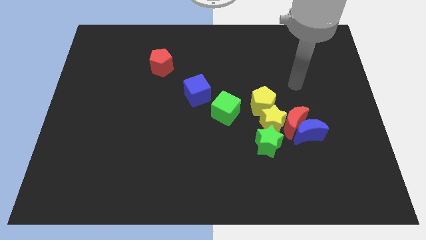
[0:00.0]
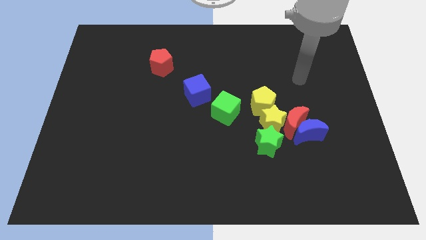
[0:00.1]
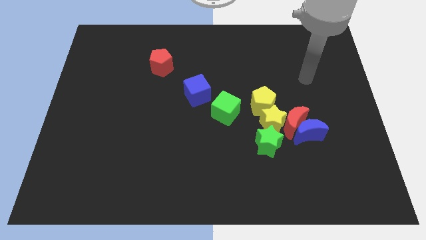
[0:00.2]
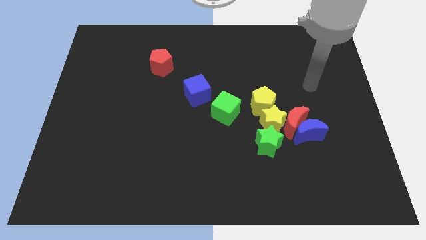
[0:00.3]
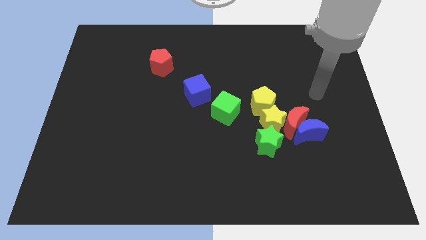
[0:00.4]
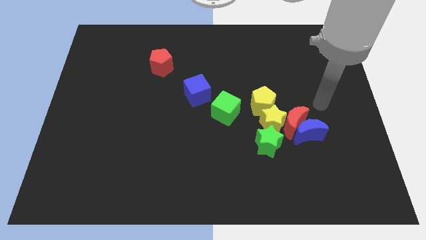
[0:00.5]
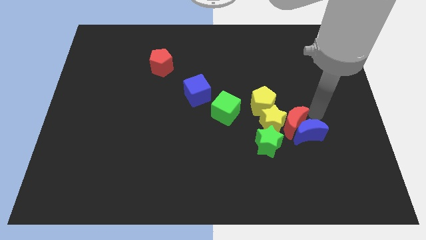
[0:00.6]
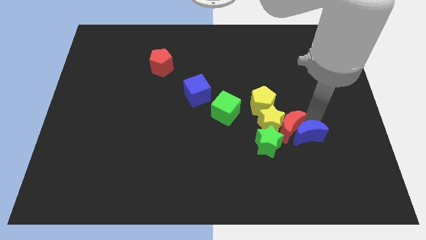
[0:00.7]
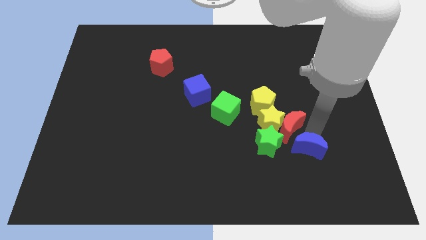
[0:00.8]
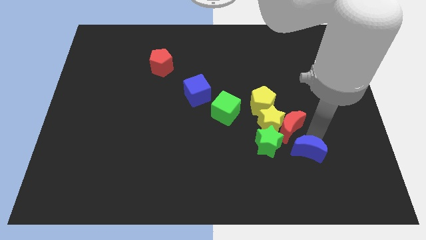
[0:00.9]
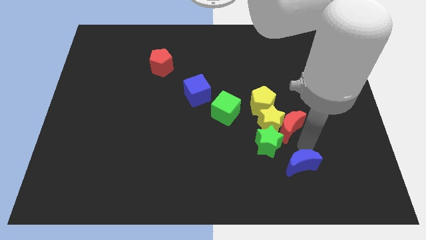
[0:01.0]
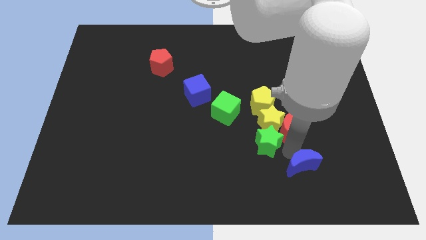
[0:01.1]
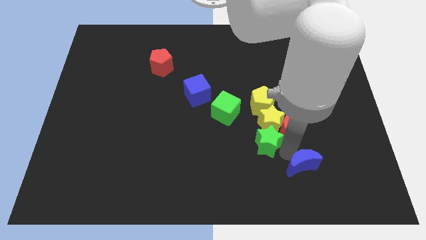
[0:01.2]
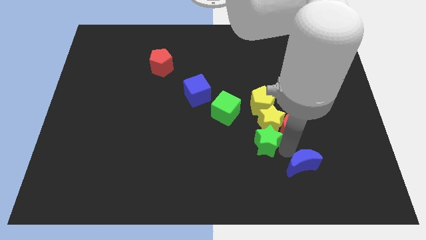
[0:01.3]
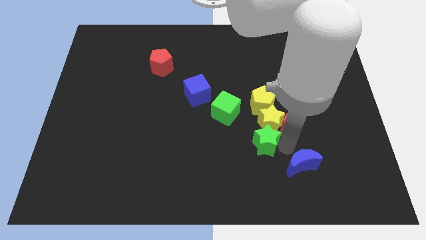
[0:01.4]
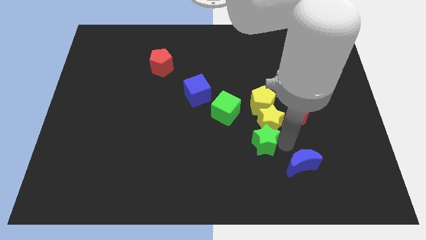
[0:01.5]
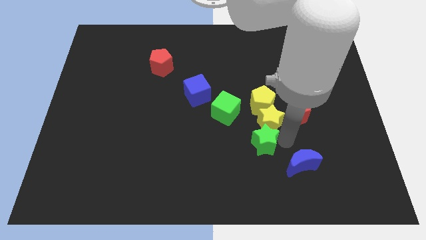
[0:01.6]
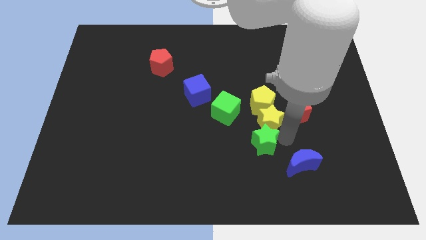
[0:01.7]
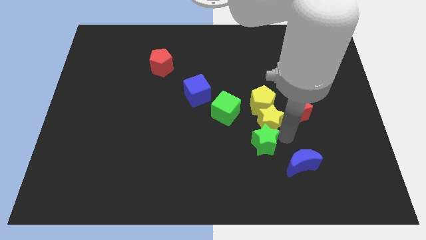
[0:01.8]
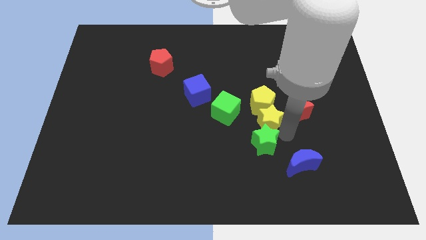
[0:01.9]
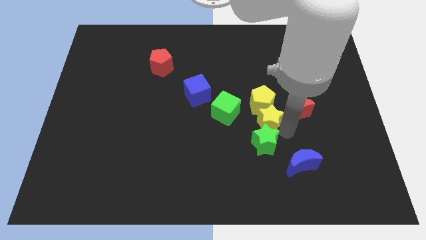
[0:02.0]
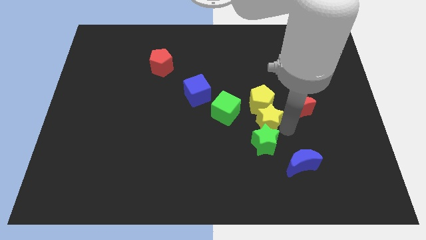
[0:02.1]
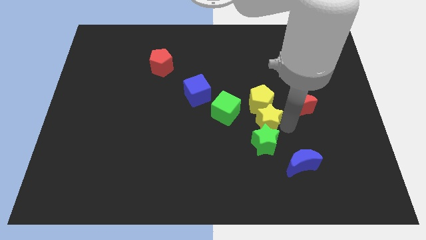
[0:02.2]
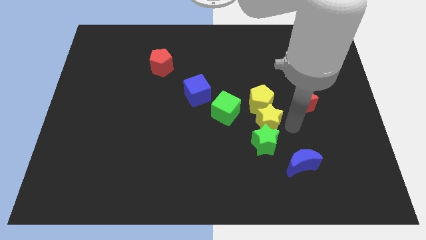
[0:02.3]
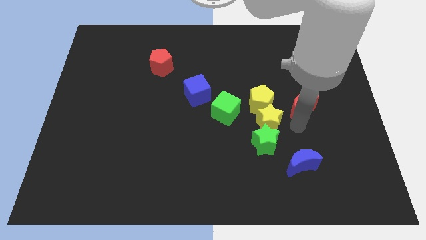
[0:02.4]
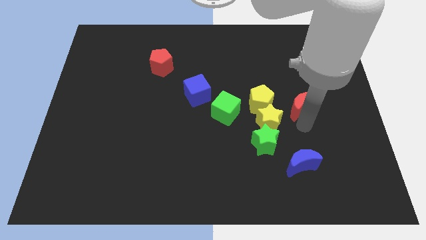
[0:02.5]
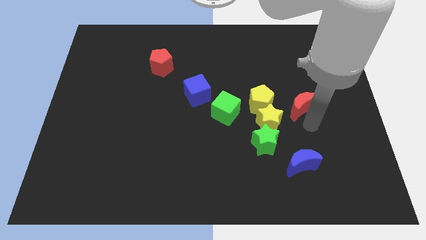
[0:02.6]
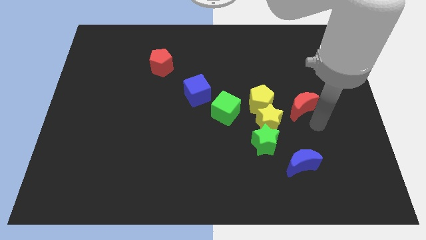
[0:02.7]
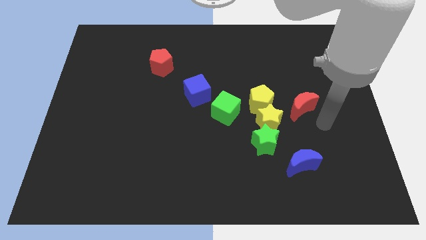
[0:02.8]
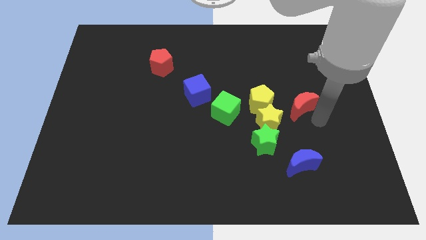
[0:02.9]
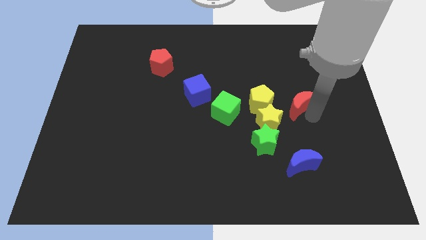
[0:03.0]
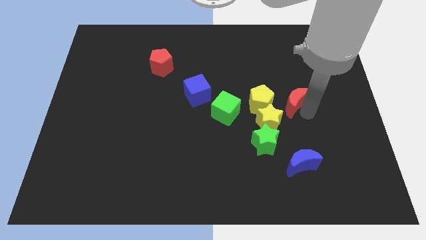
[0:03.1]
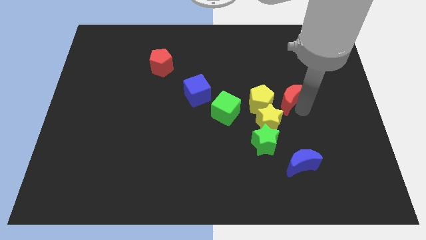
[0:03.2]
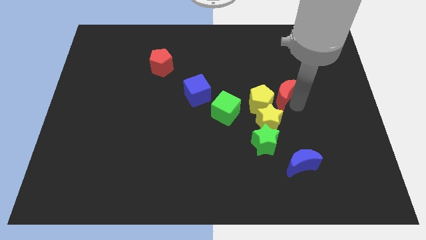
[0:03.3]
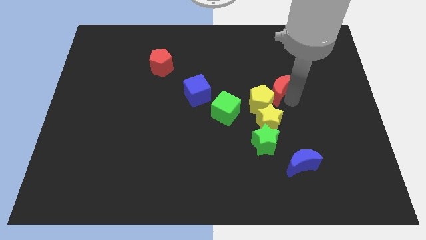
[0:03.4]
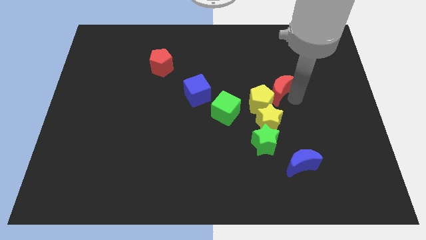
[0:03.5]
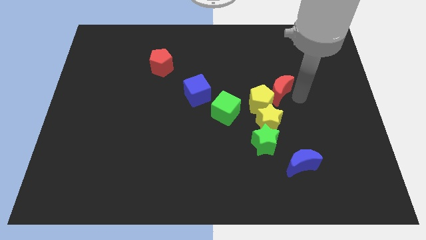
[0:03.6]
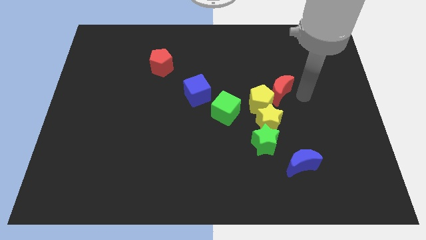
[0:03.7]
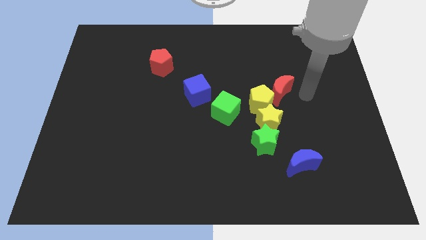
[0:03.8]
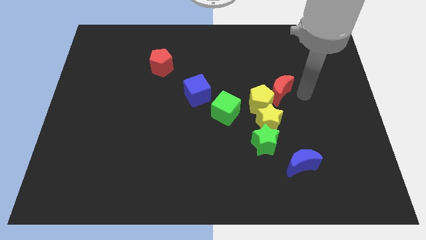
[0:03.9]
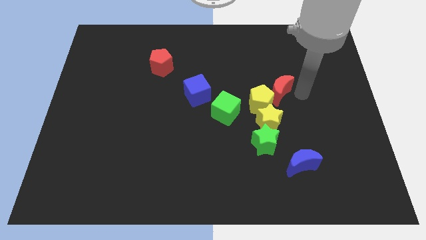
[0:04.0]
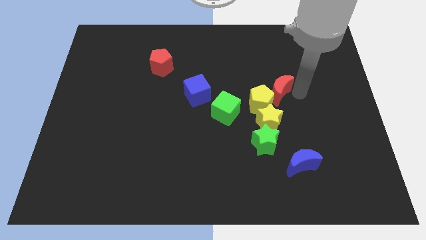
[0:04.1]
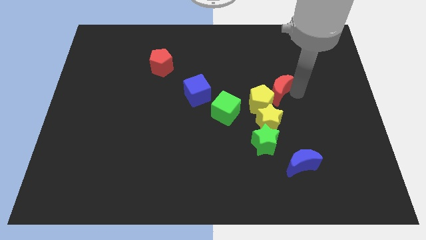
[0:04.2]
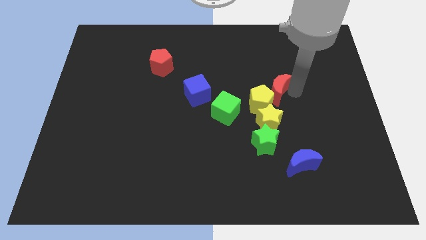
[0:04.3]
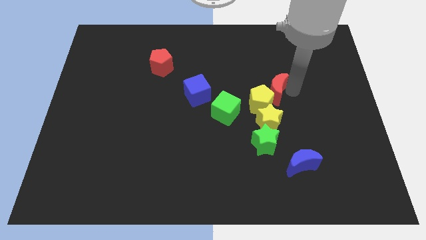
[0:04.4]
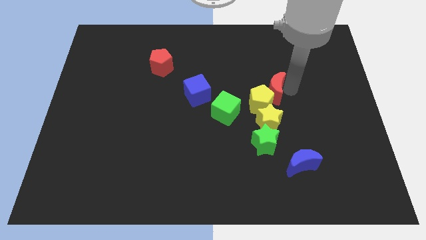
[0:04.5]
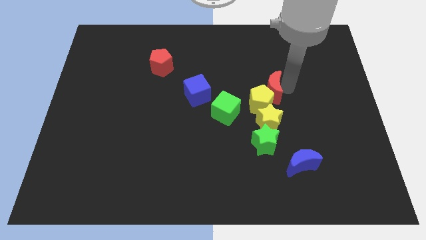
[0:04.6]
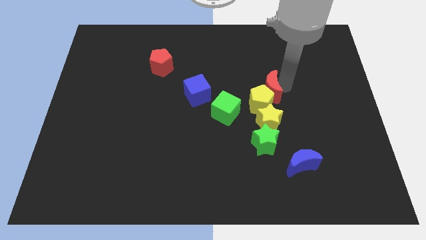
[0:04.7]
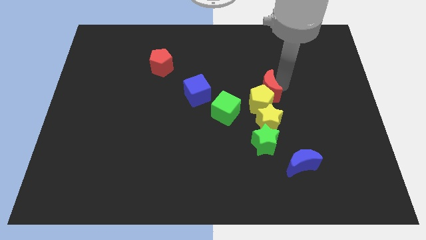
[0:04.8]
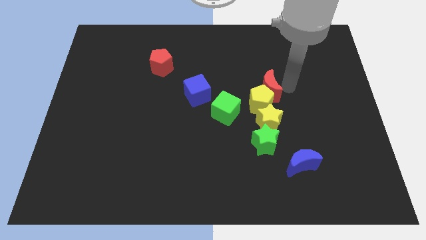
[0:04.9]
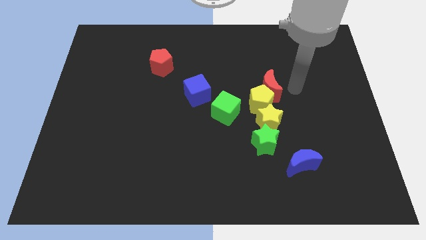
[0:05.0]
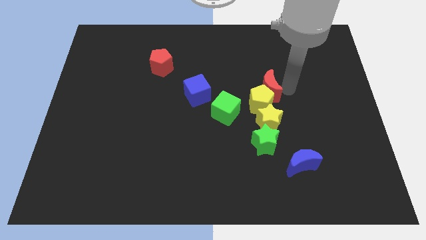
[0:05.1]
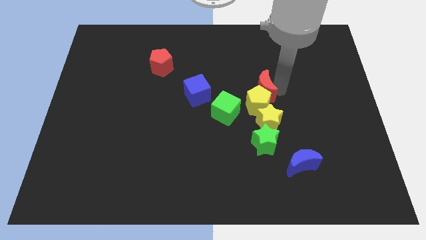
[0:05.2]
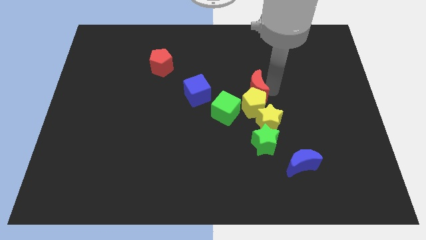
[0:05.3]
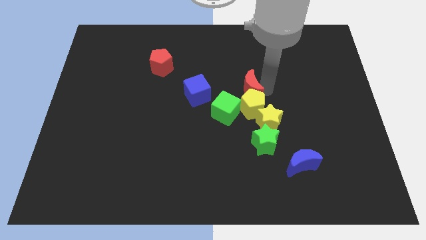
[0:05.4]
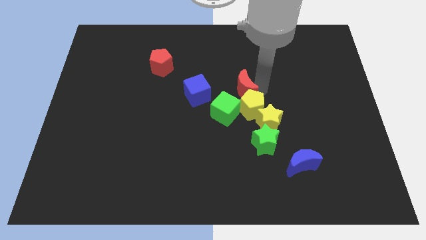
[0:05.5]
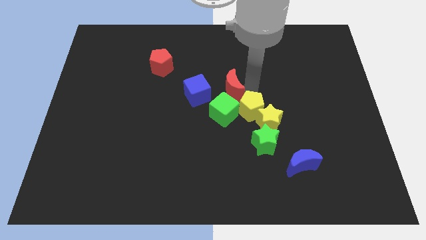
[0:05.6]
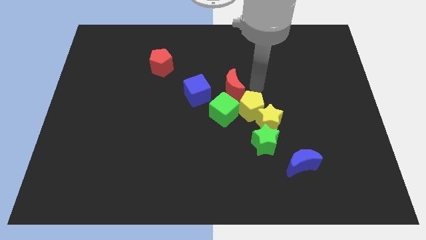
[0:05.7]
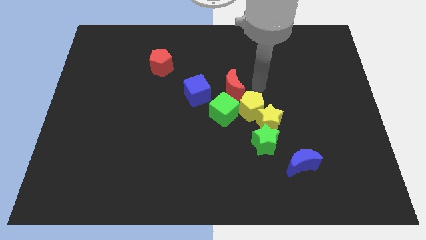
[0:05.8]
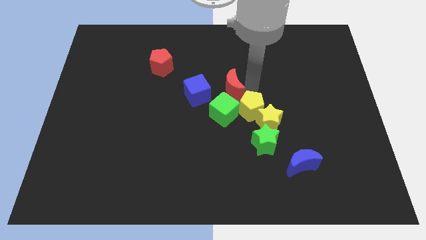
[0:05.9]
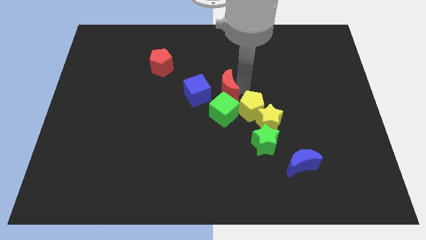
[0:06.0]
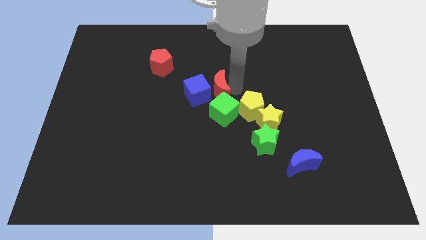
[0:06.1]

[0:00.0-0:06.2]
put the red moon close to the blue cube

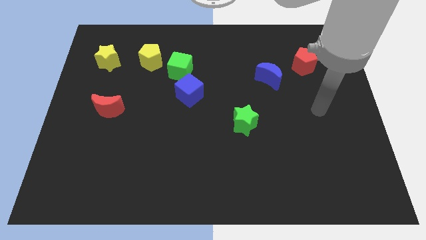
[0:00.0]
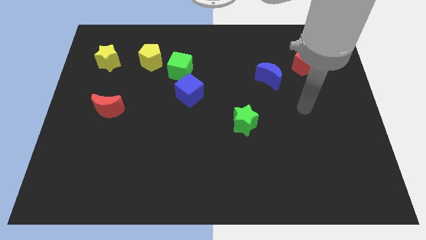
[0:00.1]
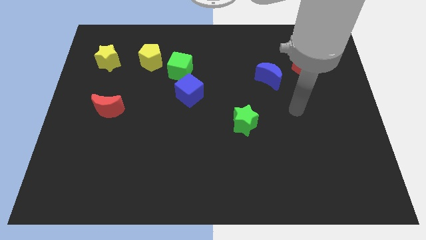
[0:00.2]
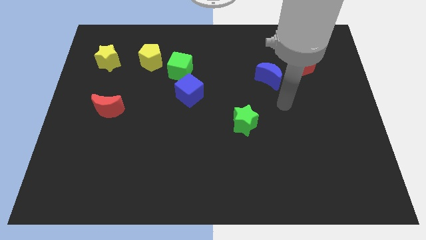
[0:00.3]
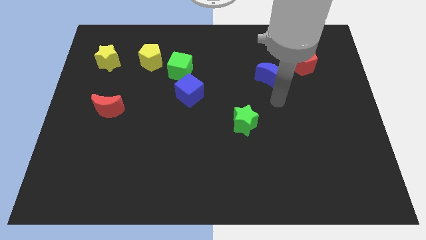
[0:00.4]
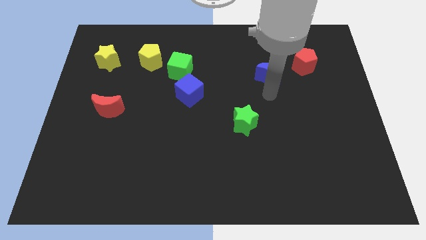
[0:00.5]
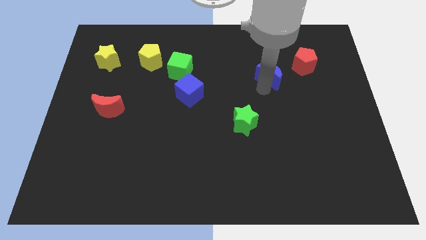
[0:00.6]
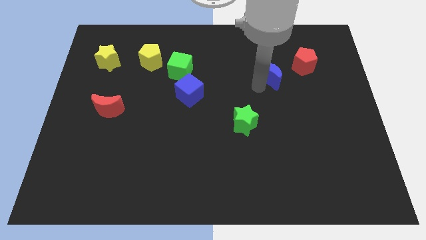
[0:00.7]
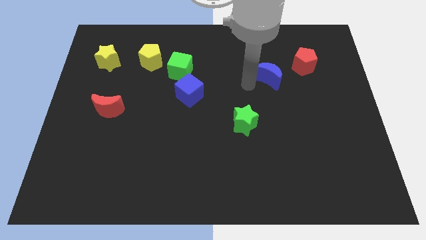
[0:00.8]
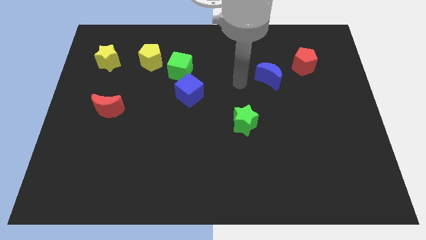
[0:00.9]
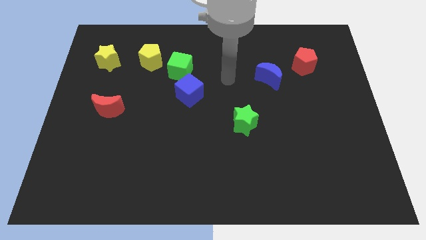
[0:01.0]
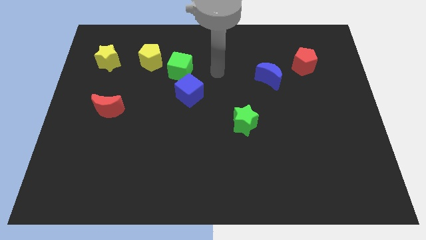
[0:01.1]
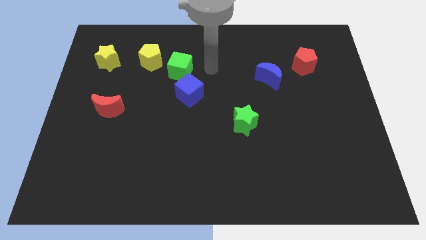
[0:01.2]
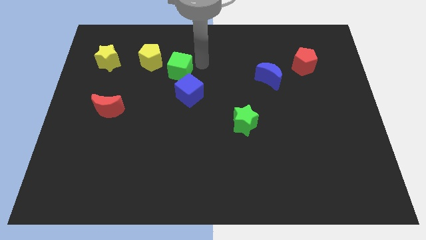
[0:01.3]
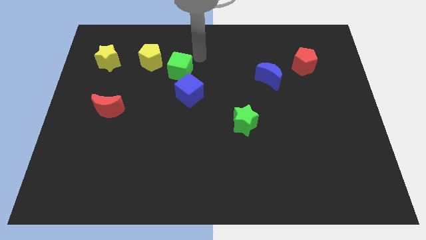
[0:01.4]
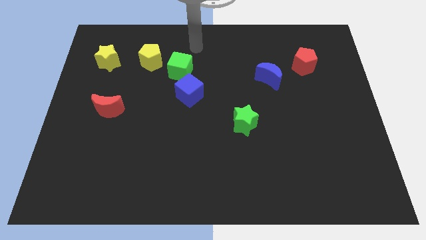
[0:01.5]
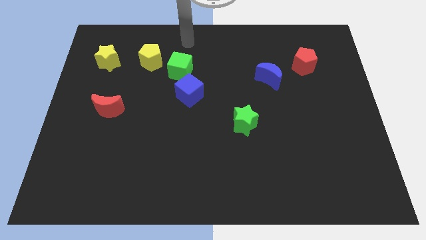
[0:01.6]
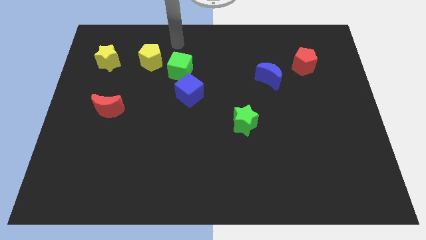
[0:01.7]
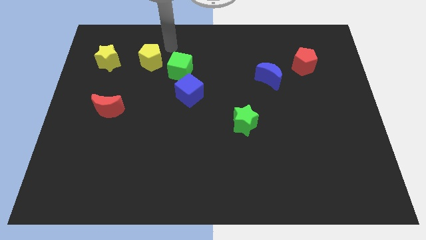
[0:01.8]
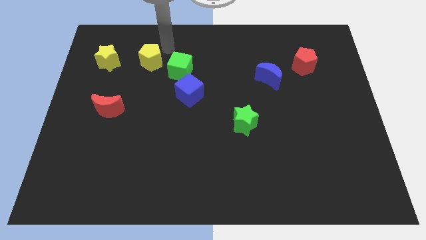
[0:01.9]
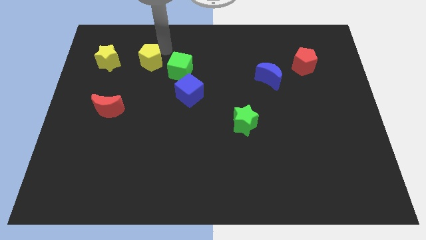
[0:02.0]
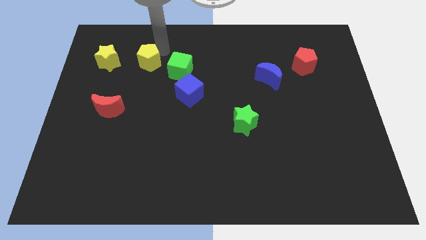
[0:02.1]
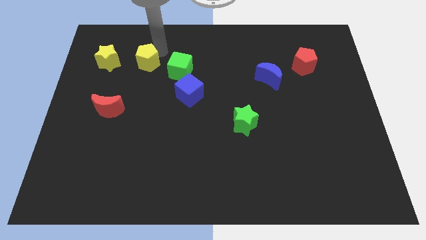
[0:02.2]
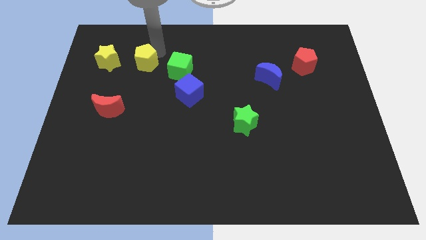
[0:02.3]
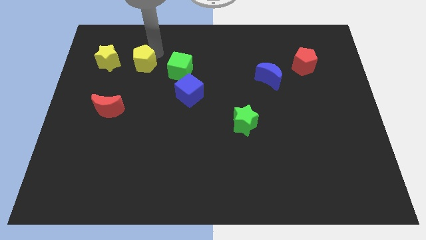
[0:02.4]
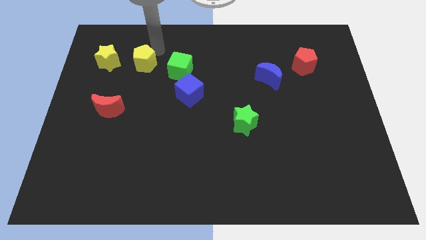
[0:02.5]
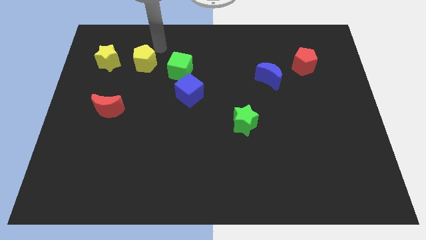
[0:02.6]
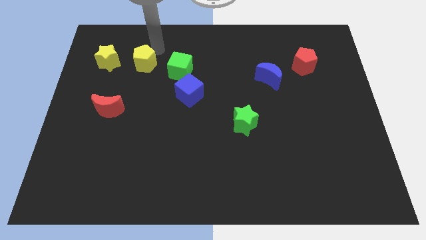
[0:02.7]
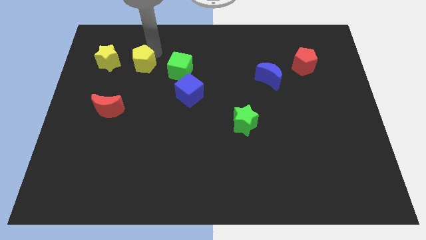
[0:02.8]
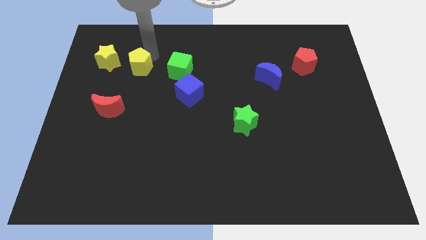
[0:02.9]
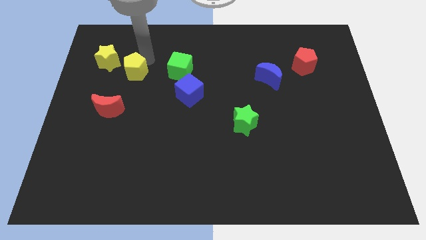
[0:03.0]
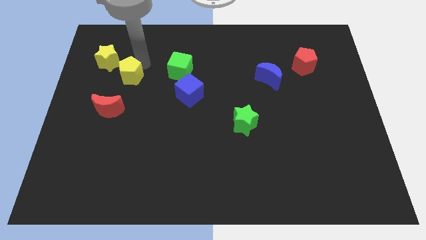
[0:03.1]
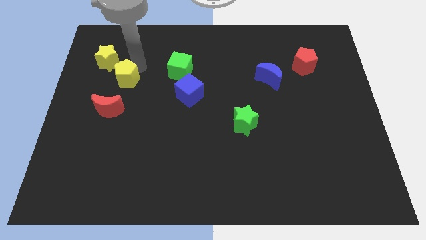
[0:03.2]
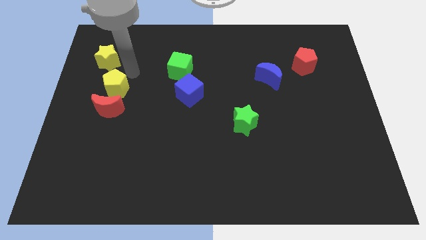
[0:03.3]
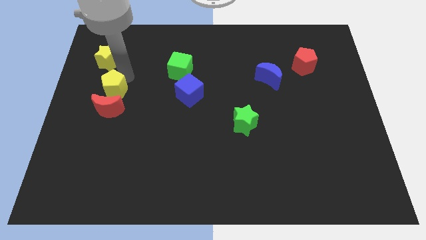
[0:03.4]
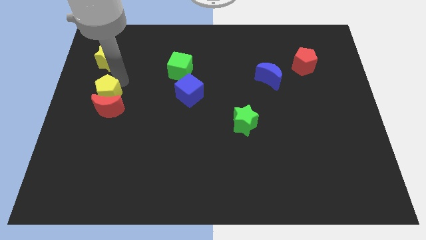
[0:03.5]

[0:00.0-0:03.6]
push the yellow pentagon to the red moon
